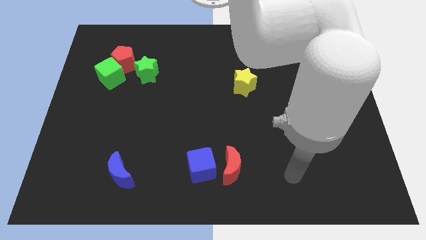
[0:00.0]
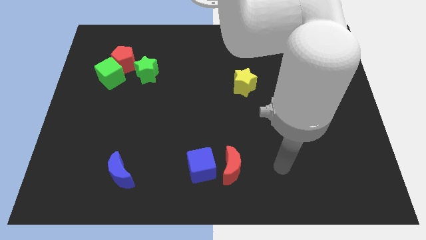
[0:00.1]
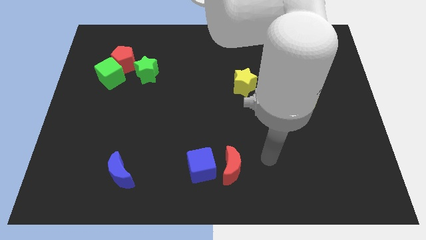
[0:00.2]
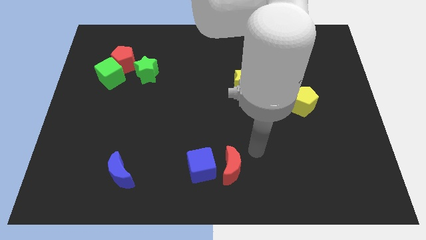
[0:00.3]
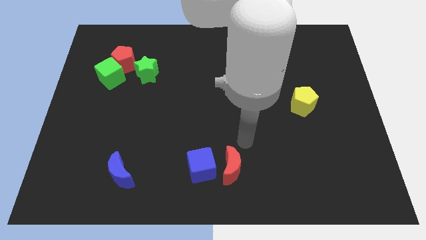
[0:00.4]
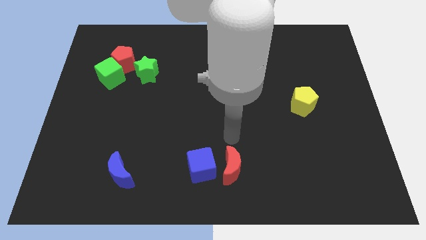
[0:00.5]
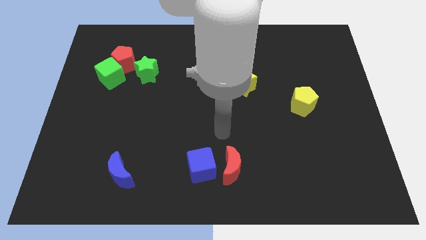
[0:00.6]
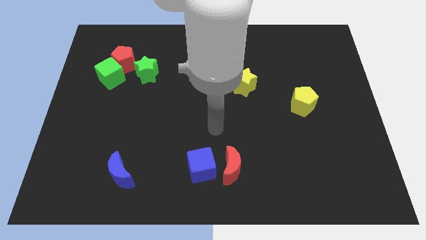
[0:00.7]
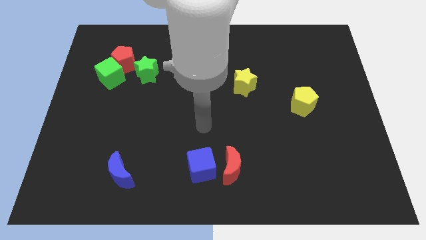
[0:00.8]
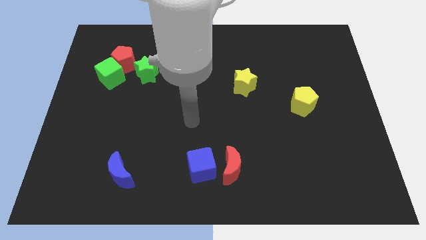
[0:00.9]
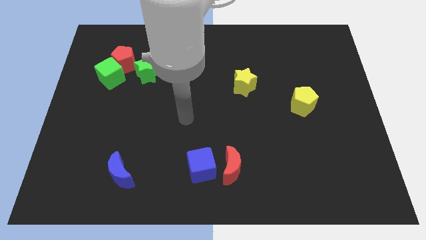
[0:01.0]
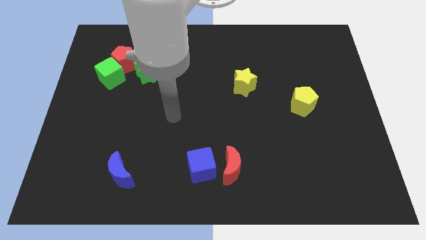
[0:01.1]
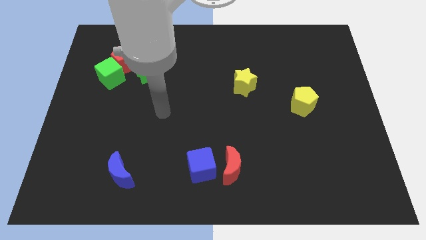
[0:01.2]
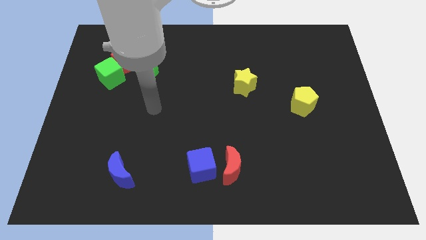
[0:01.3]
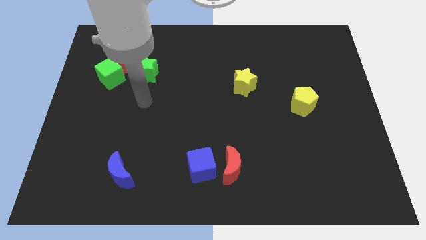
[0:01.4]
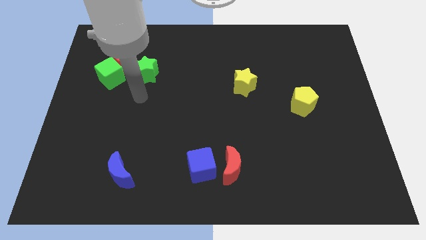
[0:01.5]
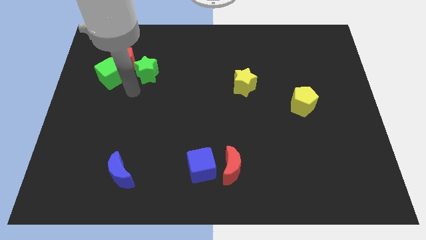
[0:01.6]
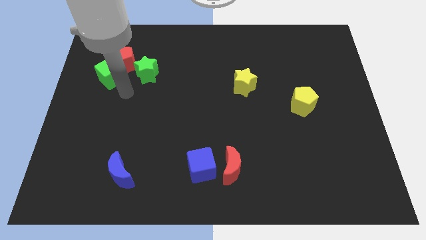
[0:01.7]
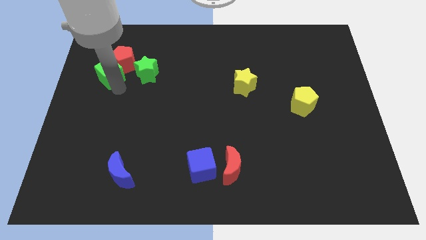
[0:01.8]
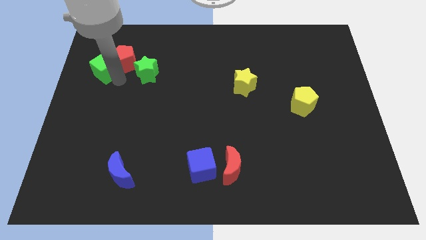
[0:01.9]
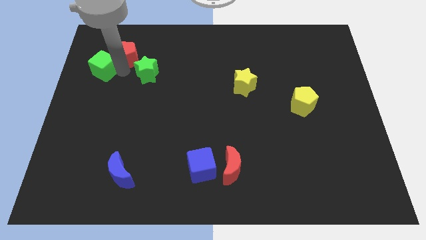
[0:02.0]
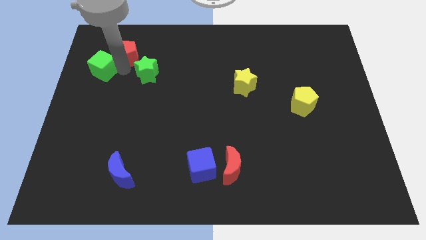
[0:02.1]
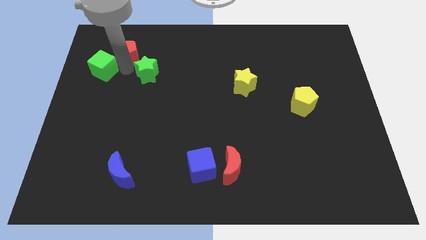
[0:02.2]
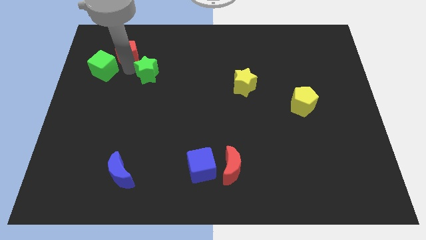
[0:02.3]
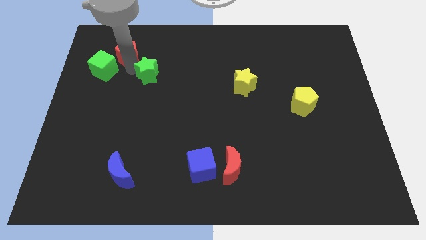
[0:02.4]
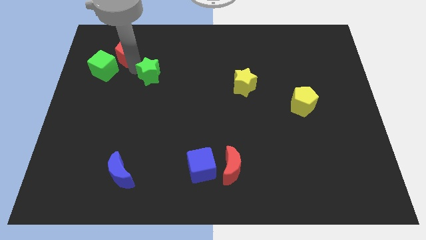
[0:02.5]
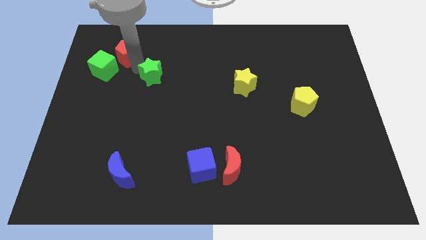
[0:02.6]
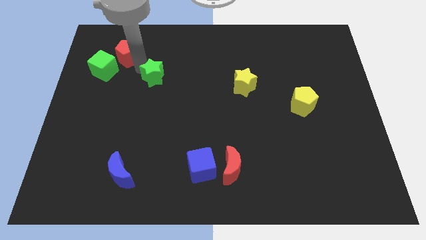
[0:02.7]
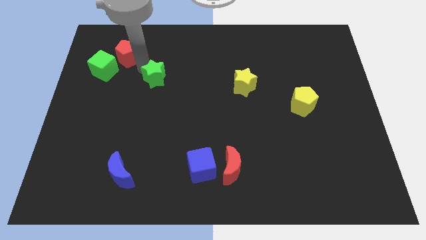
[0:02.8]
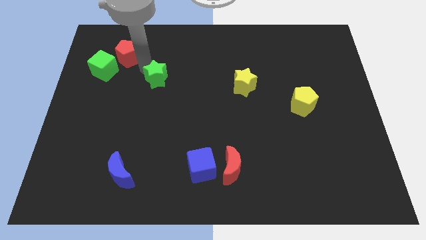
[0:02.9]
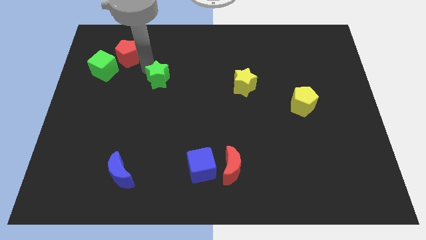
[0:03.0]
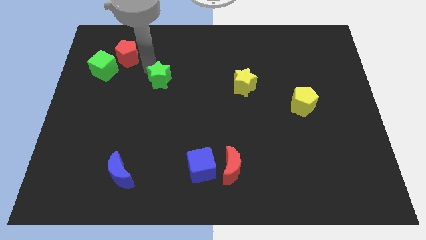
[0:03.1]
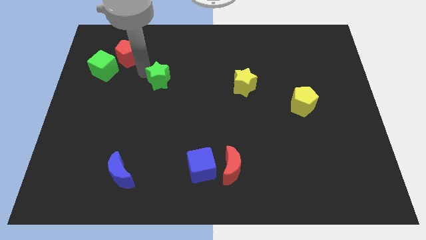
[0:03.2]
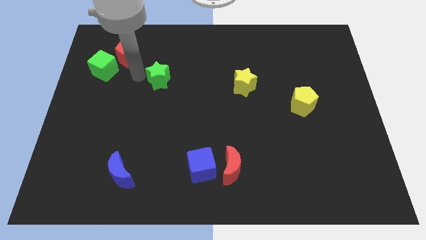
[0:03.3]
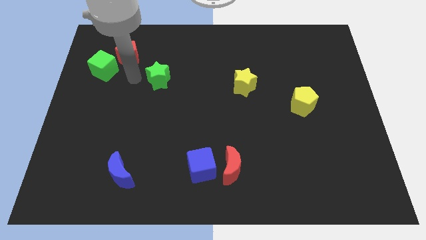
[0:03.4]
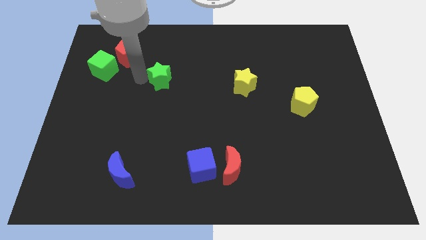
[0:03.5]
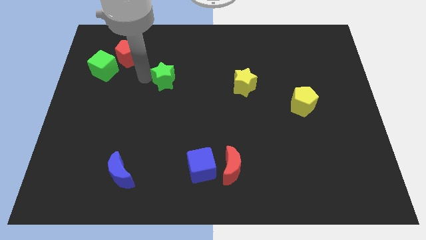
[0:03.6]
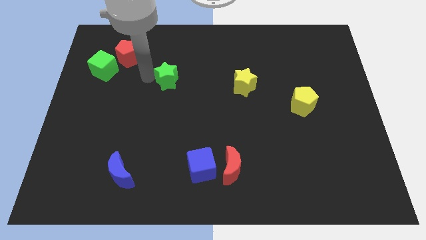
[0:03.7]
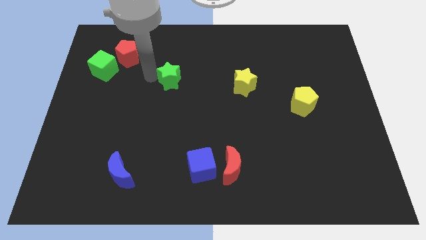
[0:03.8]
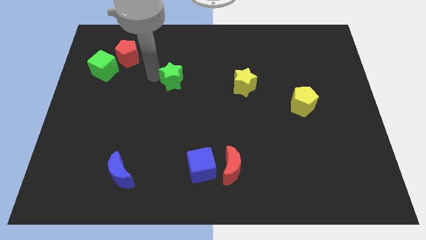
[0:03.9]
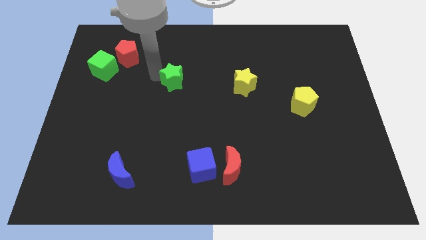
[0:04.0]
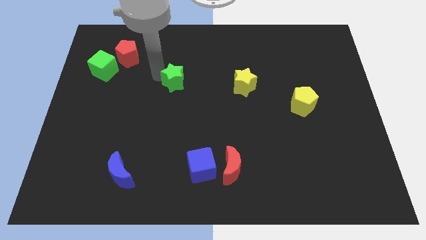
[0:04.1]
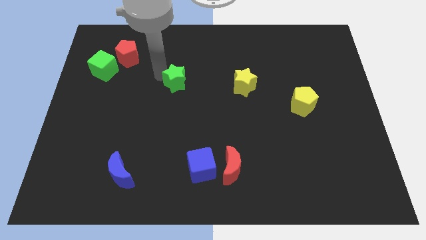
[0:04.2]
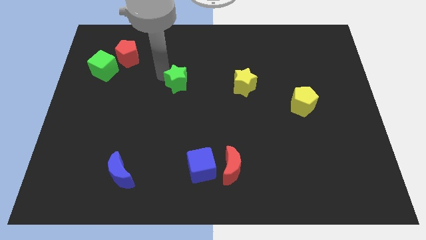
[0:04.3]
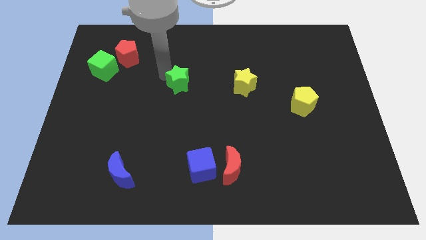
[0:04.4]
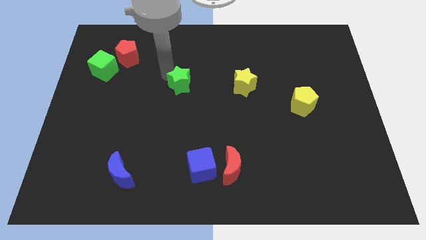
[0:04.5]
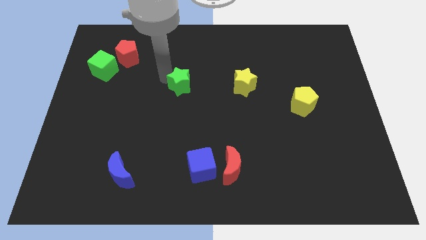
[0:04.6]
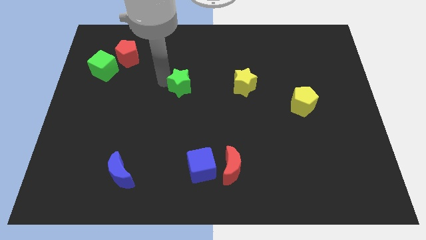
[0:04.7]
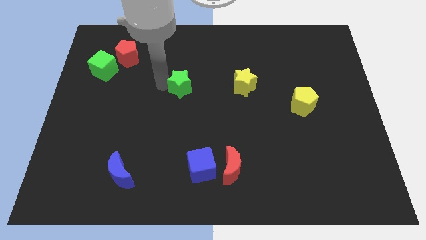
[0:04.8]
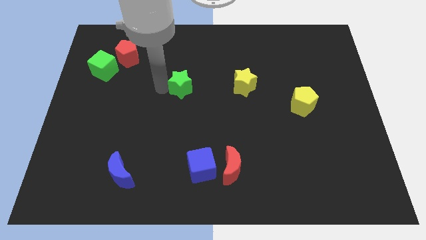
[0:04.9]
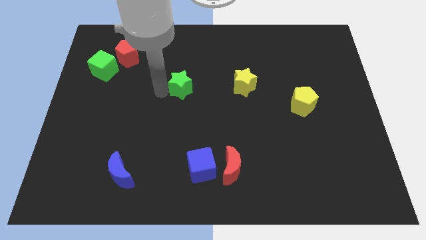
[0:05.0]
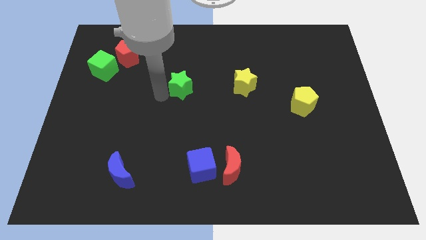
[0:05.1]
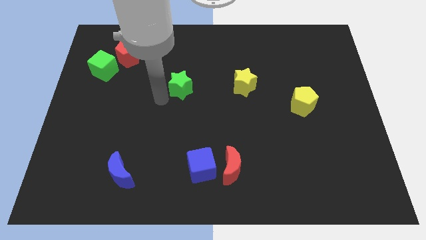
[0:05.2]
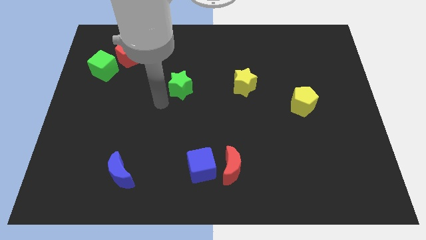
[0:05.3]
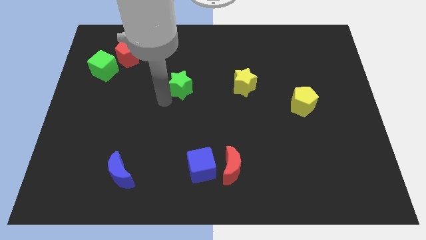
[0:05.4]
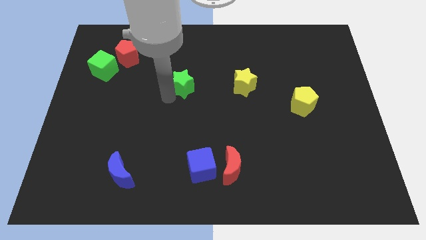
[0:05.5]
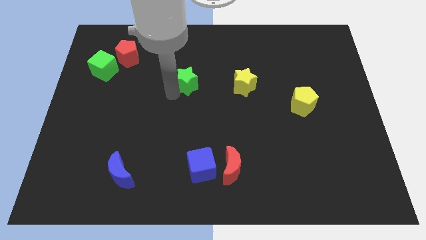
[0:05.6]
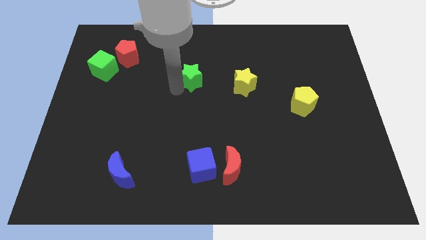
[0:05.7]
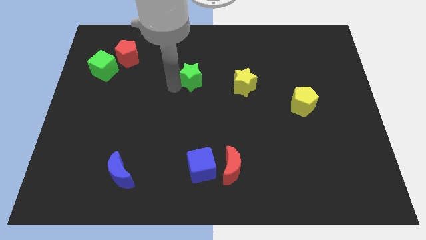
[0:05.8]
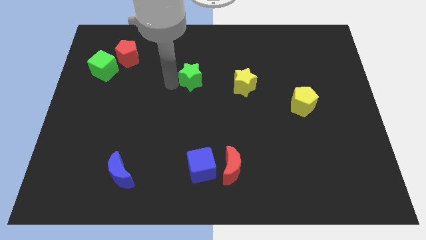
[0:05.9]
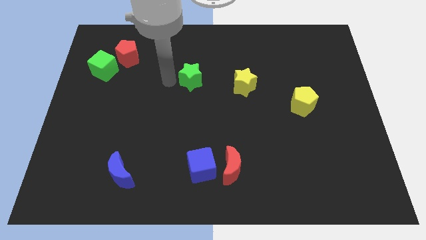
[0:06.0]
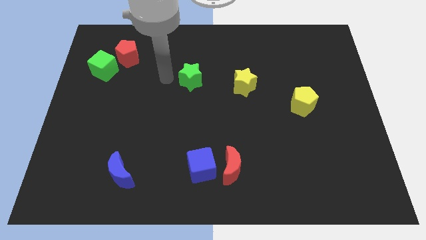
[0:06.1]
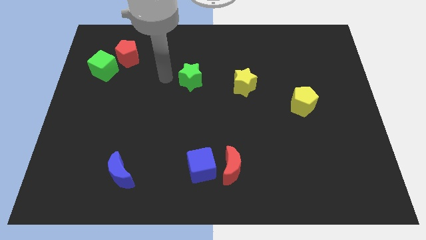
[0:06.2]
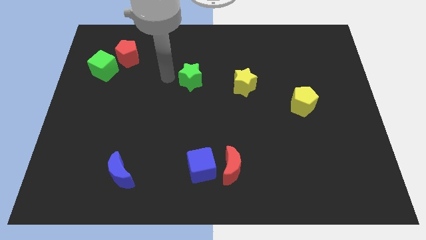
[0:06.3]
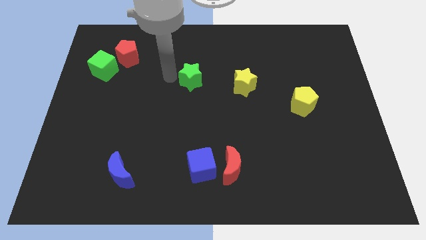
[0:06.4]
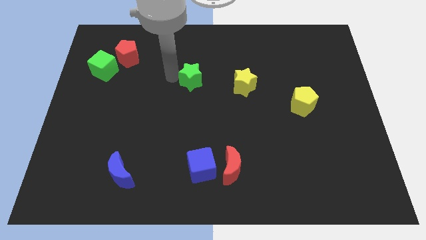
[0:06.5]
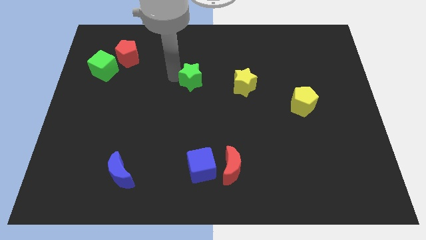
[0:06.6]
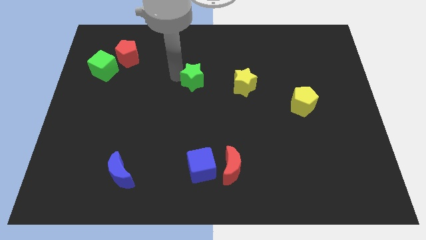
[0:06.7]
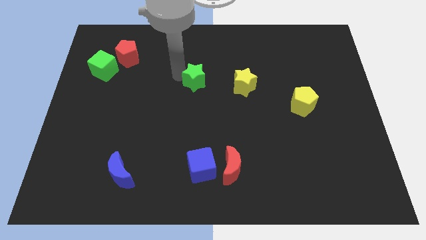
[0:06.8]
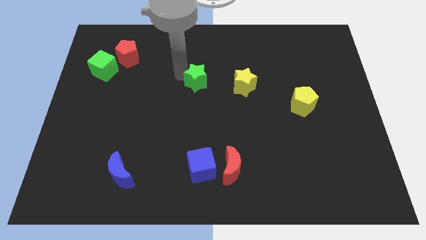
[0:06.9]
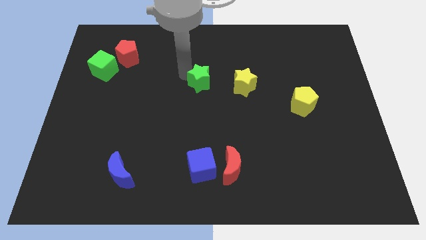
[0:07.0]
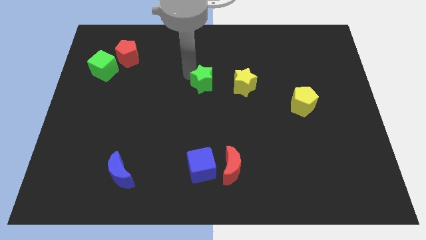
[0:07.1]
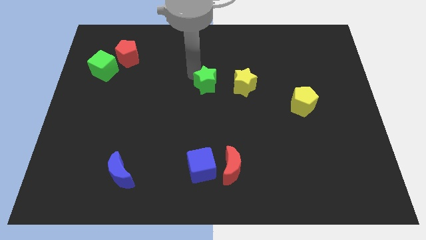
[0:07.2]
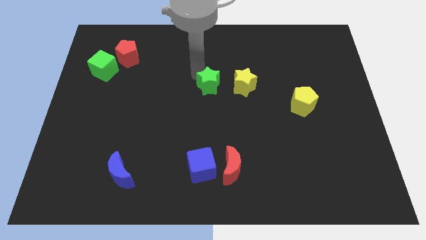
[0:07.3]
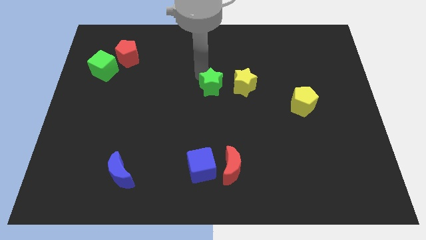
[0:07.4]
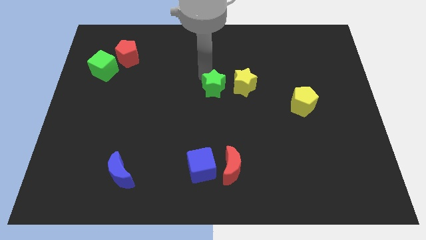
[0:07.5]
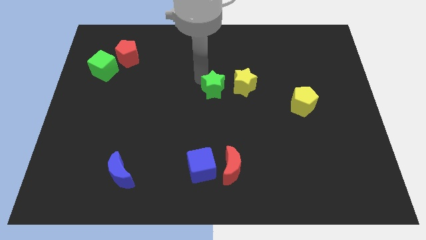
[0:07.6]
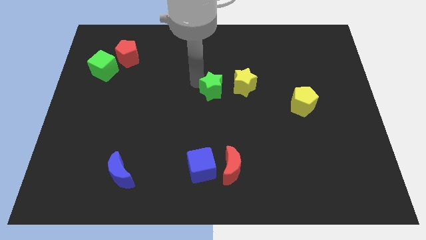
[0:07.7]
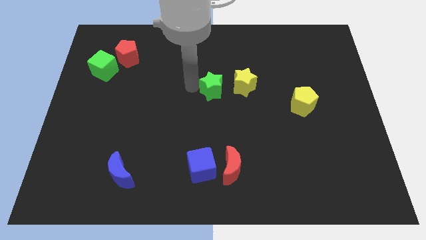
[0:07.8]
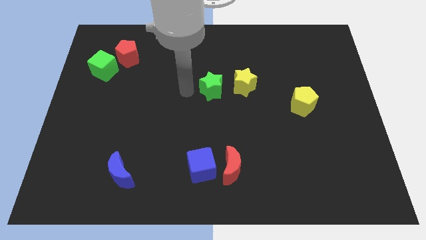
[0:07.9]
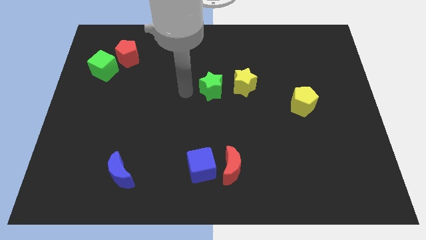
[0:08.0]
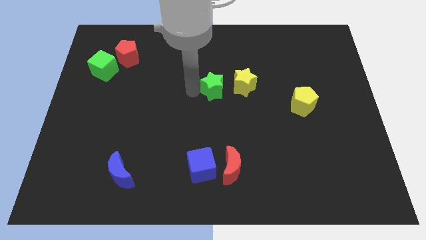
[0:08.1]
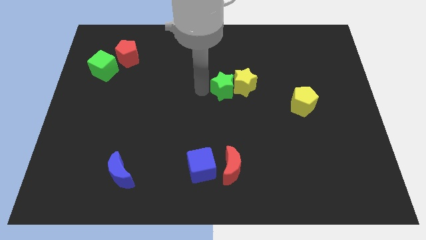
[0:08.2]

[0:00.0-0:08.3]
slide the green star to the yellow star
